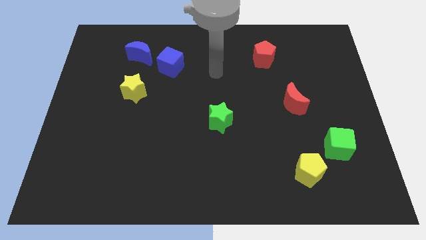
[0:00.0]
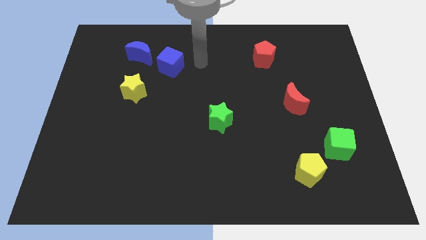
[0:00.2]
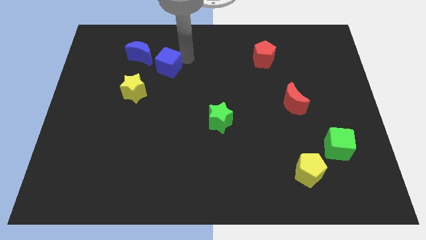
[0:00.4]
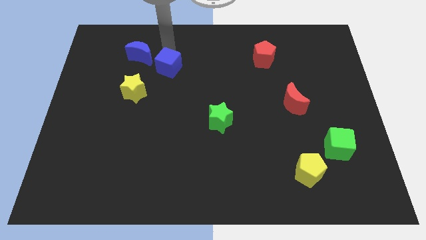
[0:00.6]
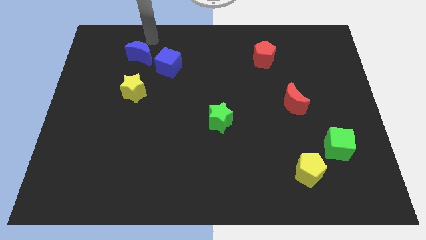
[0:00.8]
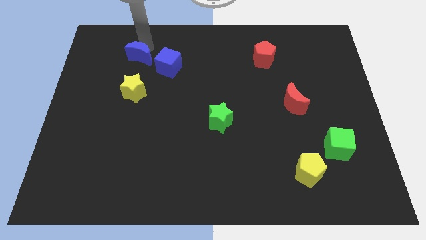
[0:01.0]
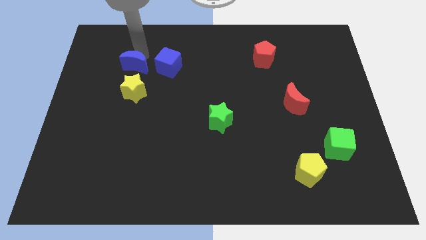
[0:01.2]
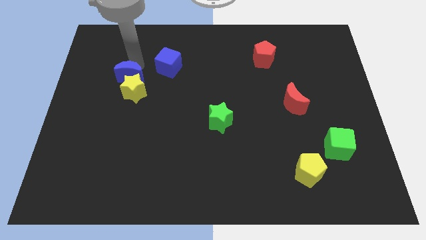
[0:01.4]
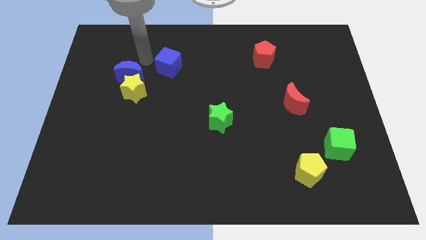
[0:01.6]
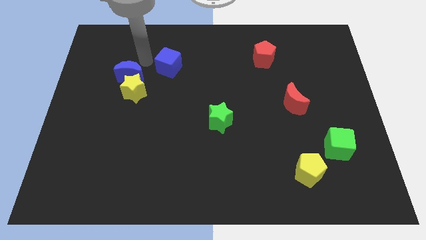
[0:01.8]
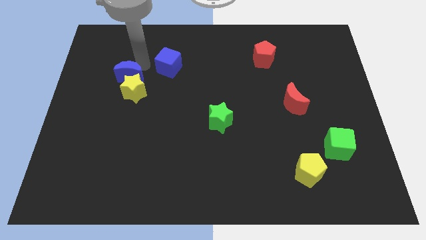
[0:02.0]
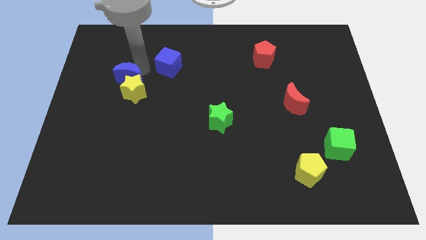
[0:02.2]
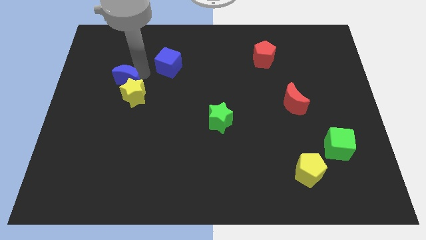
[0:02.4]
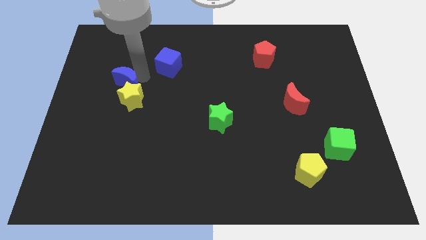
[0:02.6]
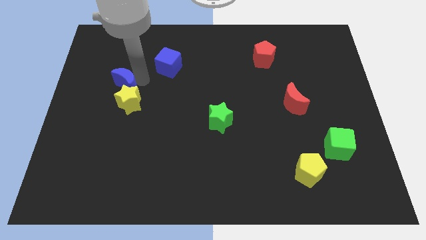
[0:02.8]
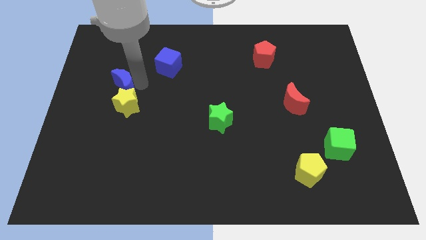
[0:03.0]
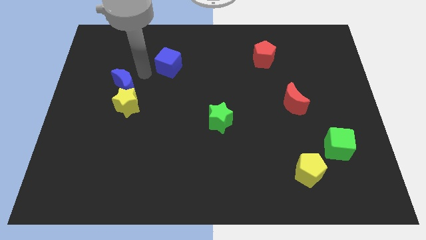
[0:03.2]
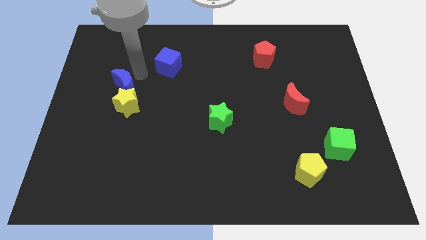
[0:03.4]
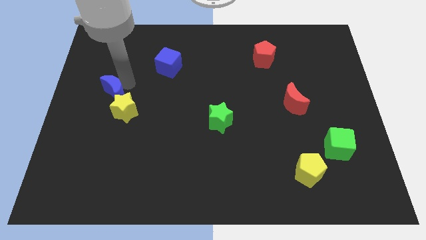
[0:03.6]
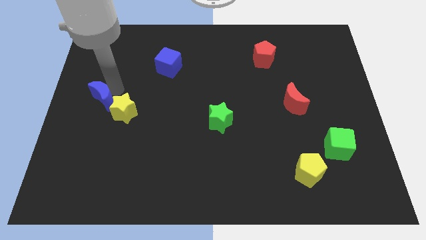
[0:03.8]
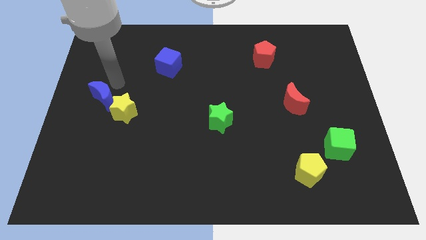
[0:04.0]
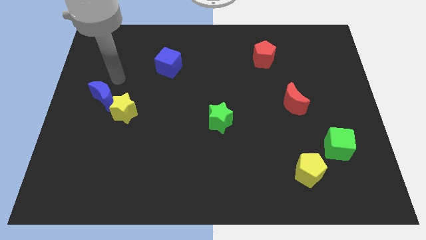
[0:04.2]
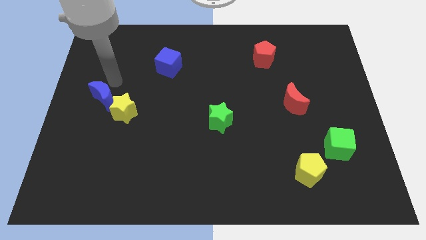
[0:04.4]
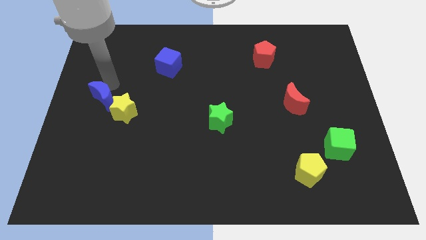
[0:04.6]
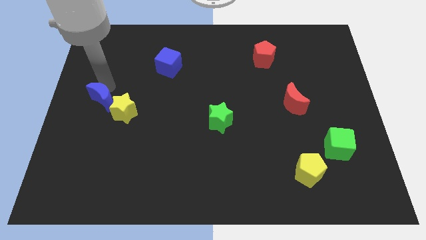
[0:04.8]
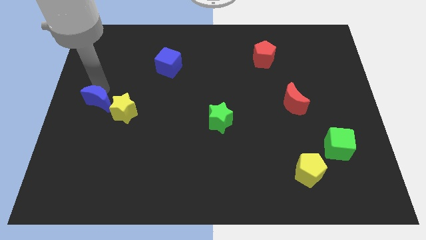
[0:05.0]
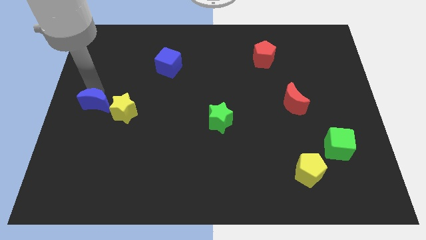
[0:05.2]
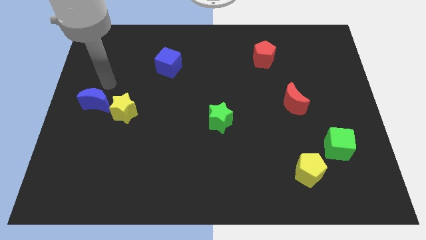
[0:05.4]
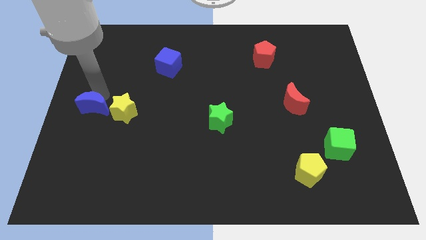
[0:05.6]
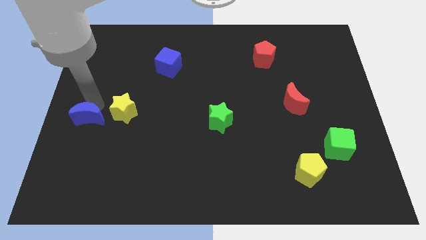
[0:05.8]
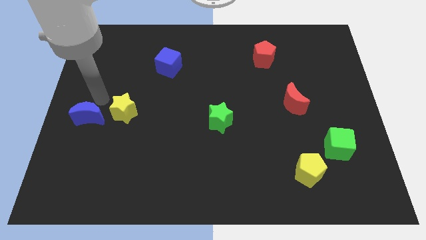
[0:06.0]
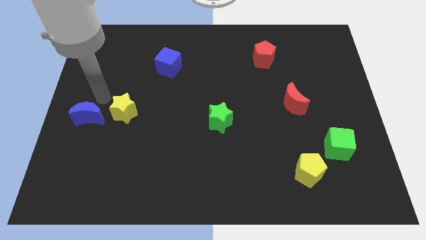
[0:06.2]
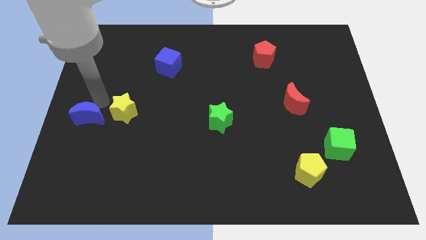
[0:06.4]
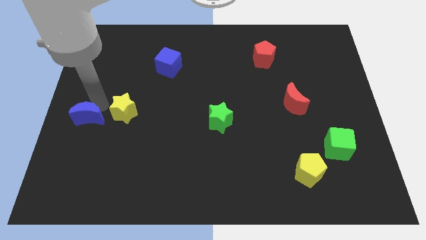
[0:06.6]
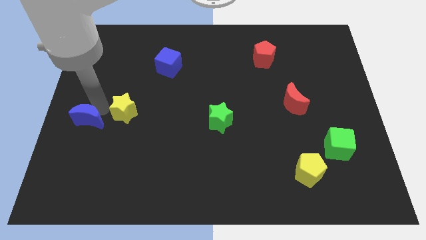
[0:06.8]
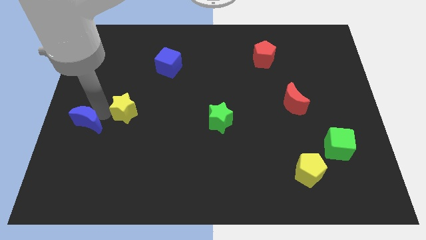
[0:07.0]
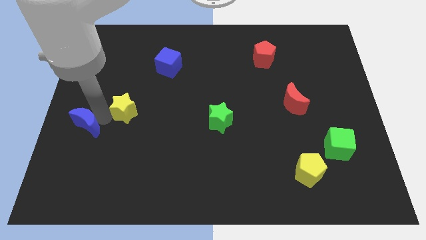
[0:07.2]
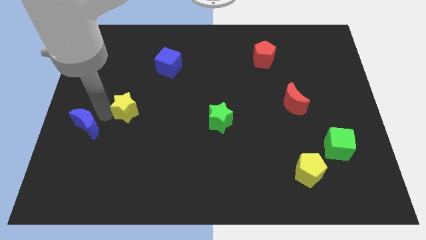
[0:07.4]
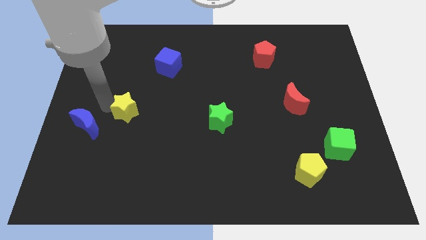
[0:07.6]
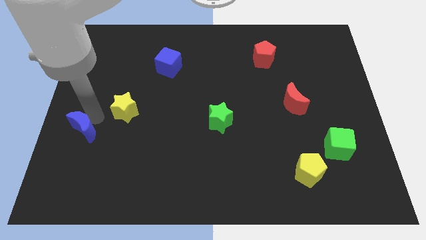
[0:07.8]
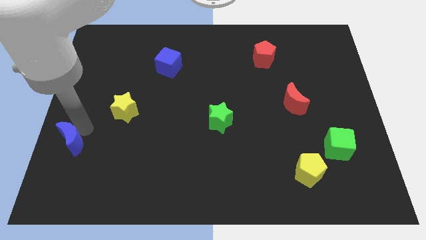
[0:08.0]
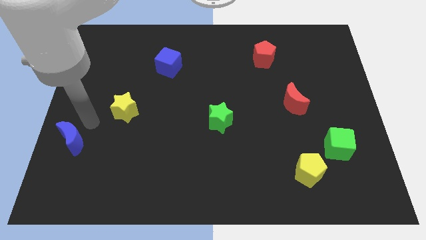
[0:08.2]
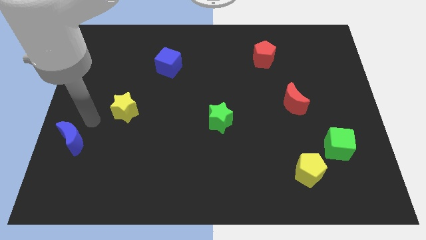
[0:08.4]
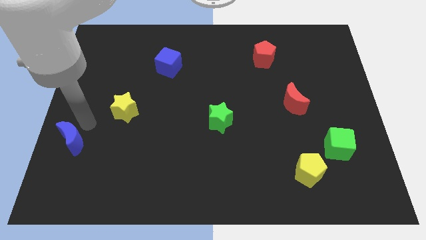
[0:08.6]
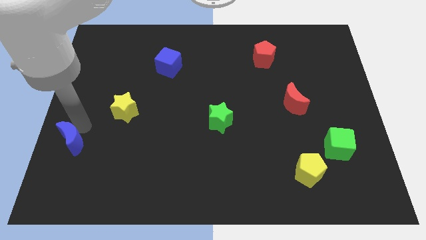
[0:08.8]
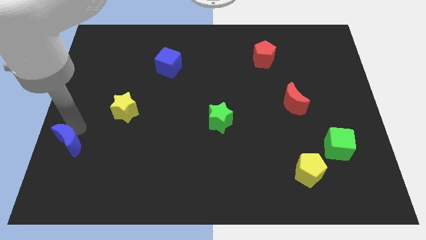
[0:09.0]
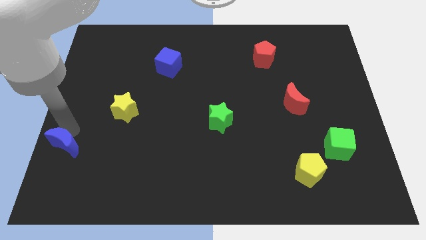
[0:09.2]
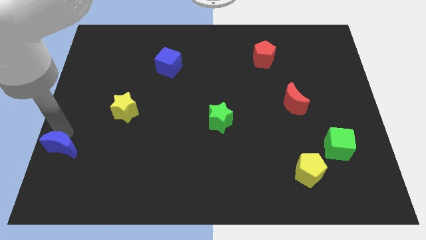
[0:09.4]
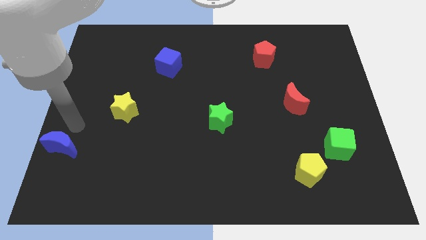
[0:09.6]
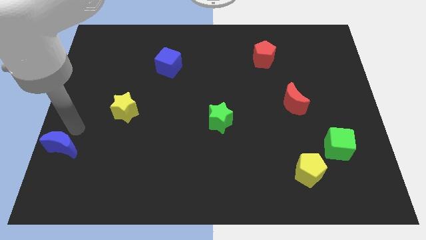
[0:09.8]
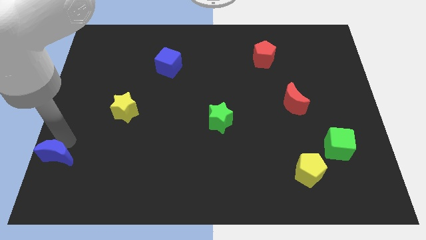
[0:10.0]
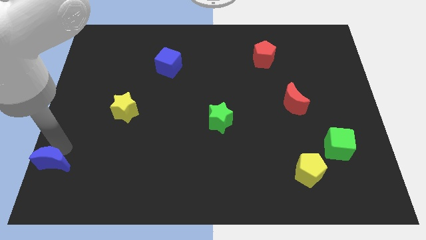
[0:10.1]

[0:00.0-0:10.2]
put the blue moon to the bottom left of the board
